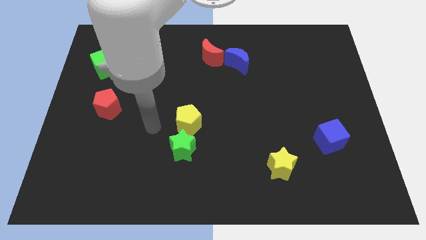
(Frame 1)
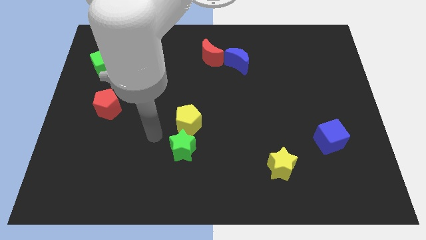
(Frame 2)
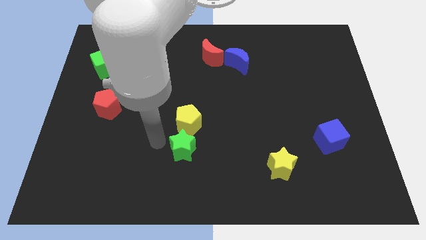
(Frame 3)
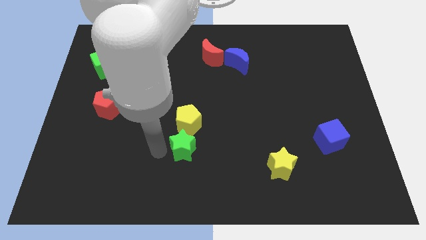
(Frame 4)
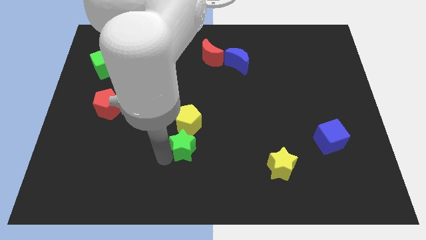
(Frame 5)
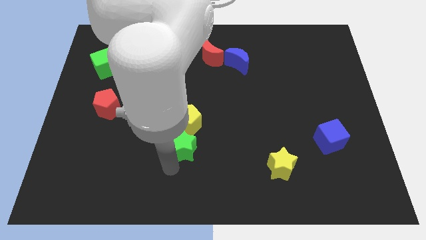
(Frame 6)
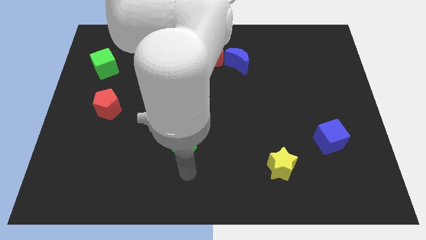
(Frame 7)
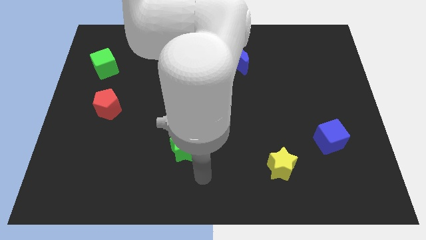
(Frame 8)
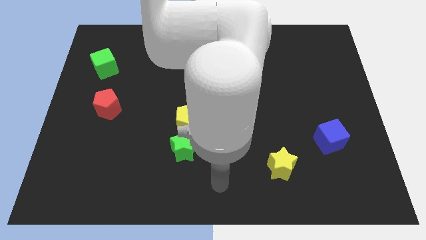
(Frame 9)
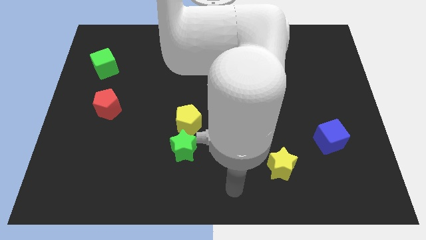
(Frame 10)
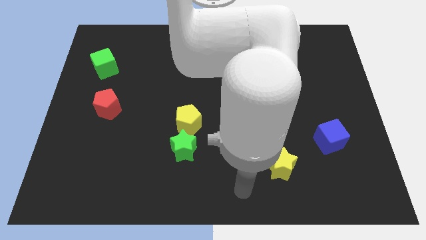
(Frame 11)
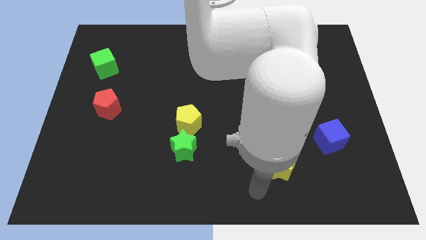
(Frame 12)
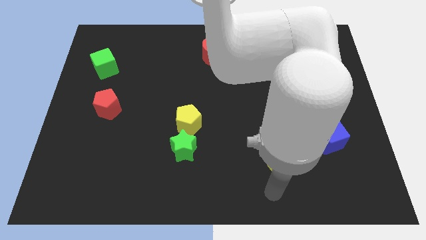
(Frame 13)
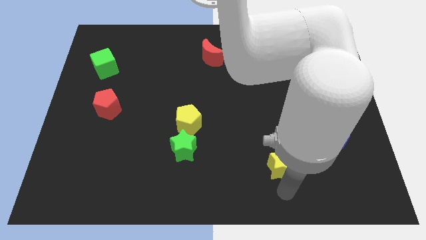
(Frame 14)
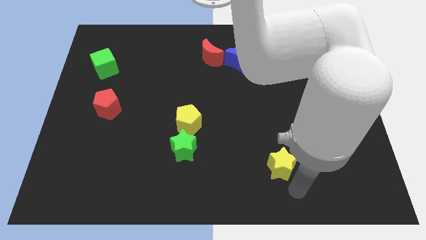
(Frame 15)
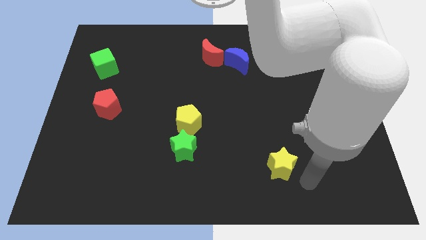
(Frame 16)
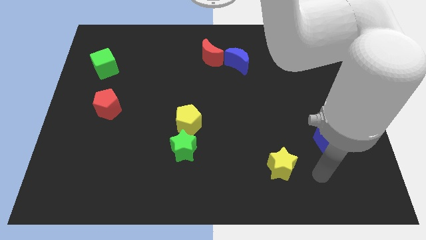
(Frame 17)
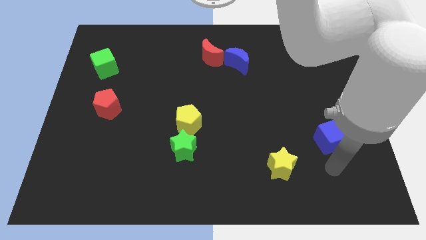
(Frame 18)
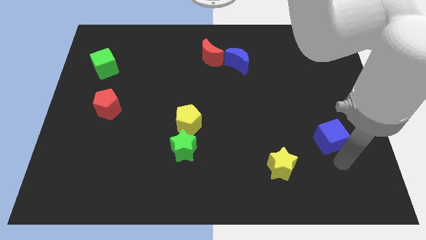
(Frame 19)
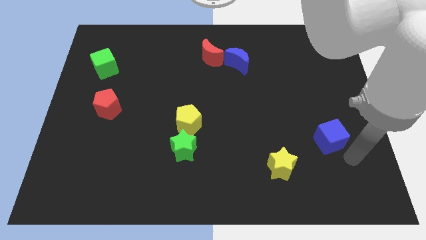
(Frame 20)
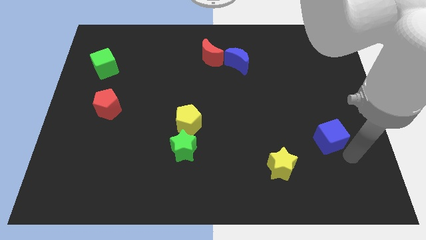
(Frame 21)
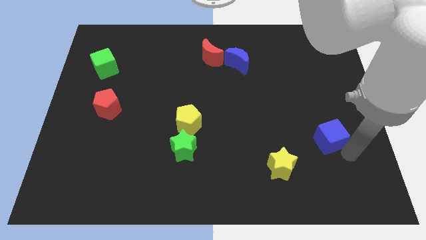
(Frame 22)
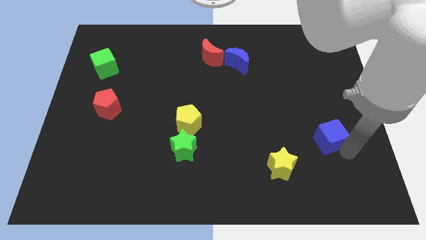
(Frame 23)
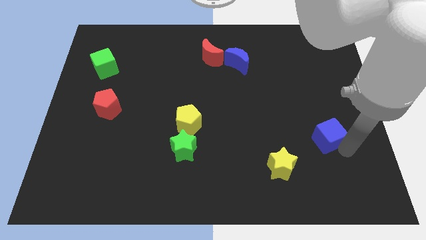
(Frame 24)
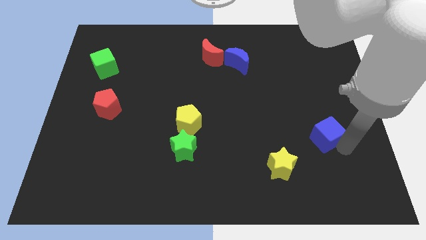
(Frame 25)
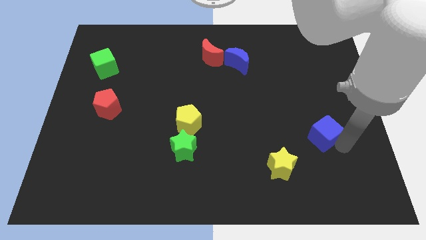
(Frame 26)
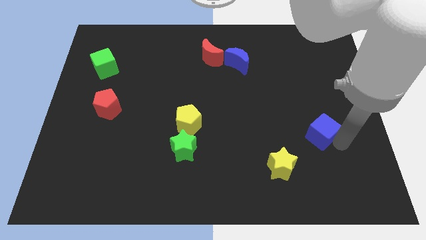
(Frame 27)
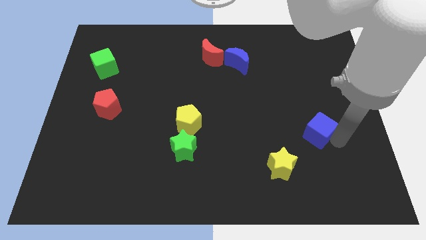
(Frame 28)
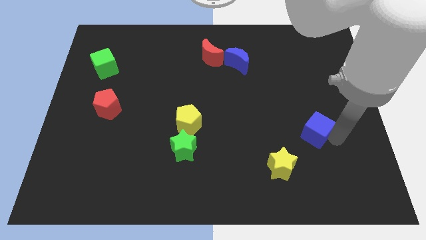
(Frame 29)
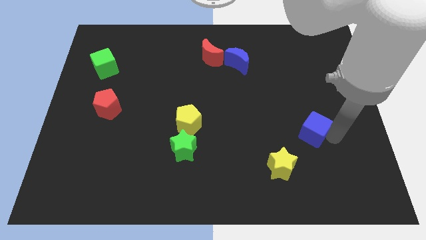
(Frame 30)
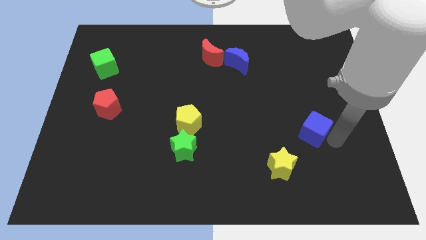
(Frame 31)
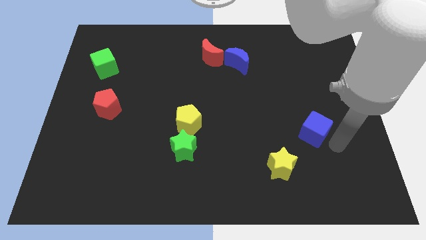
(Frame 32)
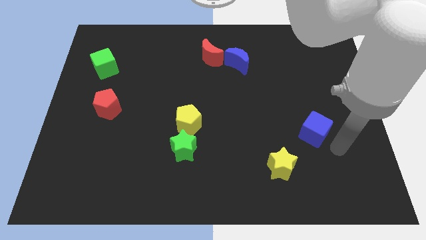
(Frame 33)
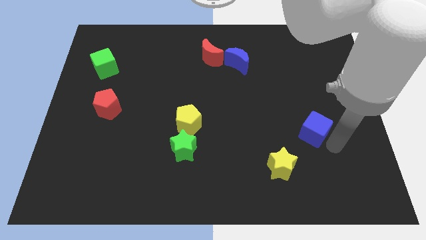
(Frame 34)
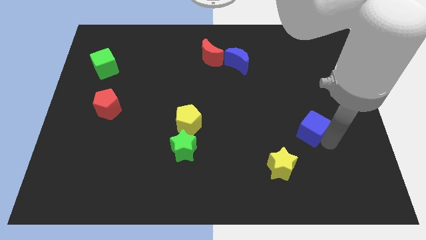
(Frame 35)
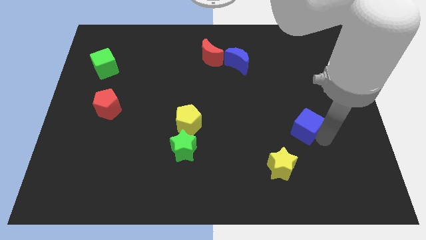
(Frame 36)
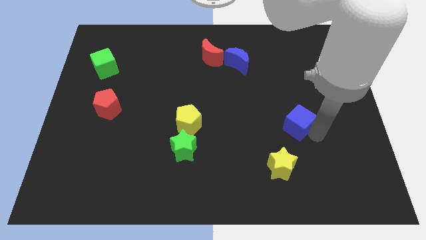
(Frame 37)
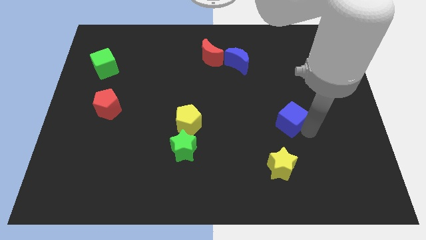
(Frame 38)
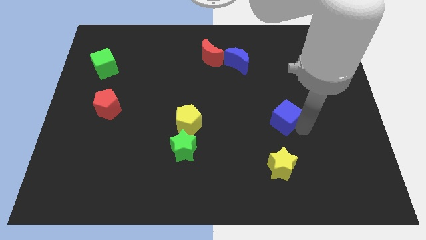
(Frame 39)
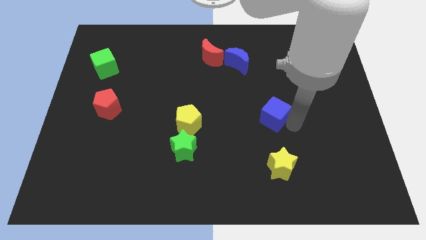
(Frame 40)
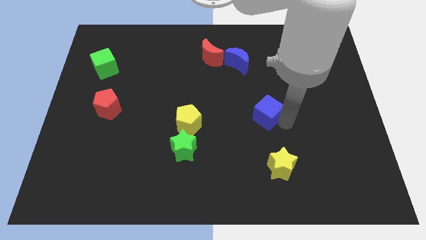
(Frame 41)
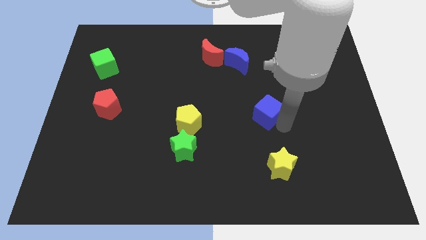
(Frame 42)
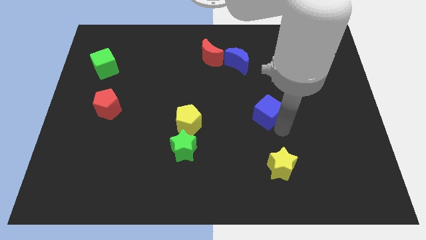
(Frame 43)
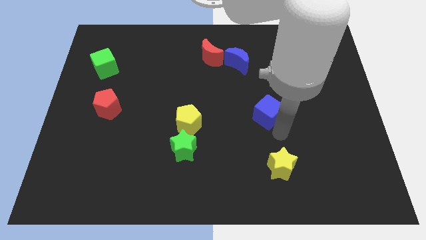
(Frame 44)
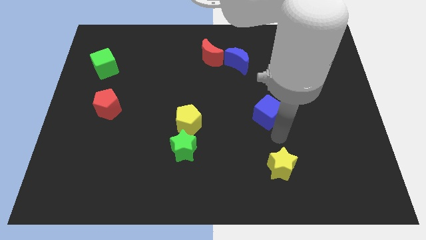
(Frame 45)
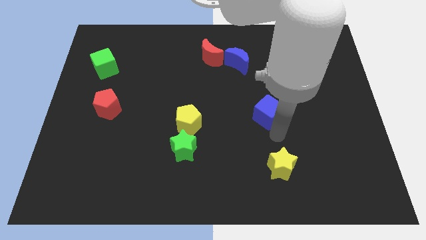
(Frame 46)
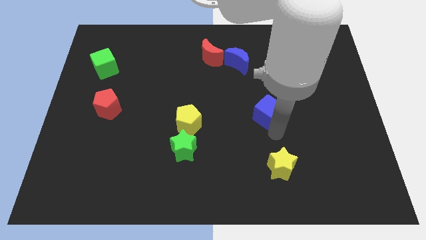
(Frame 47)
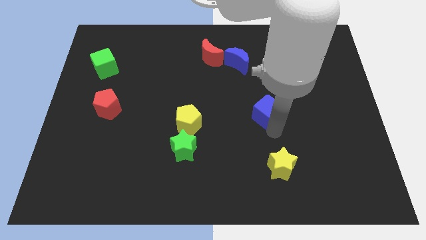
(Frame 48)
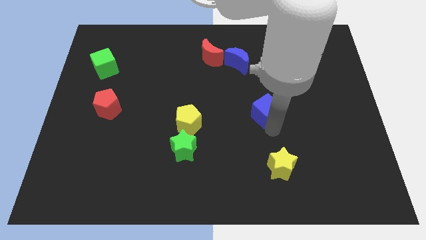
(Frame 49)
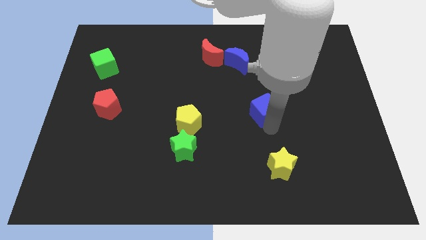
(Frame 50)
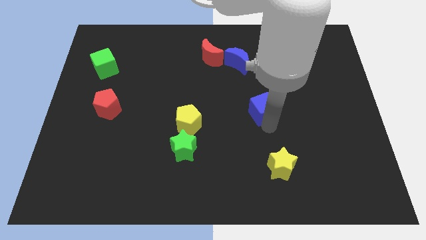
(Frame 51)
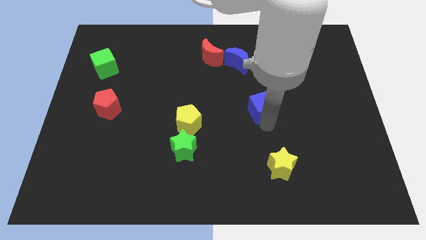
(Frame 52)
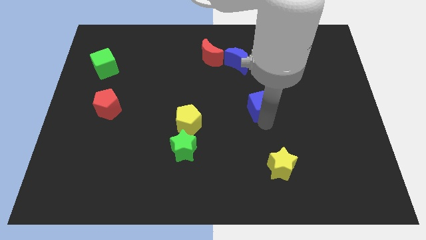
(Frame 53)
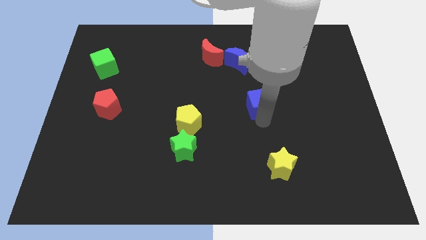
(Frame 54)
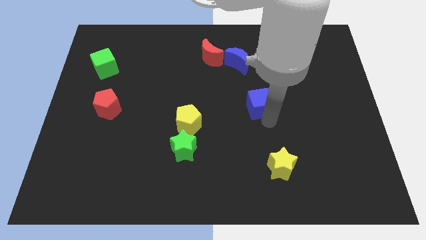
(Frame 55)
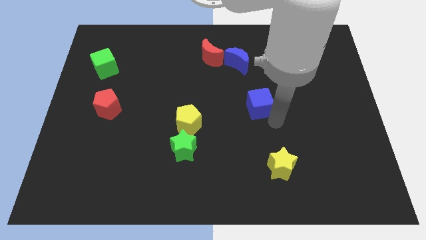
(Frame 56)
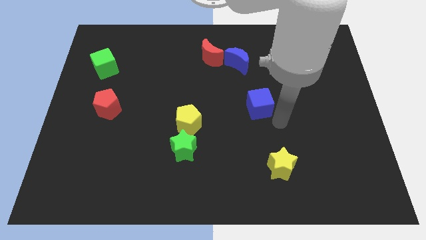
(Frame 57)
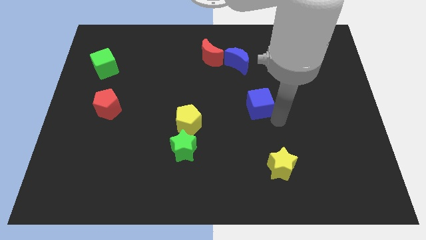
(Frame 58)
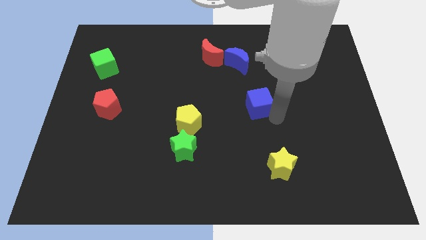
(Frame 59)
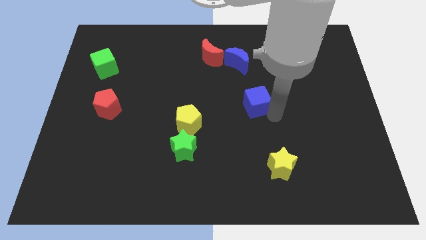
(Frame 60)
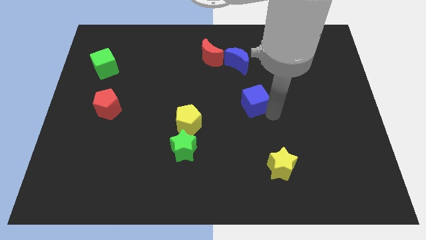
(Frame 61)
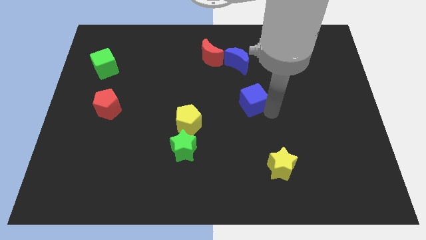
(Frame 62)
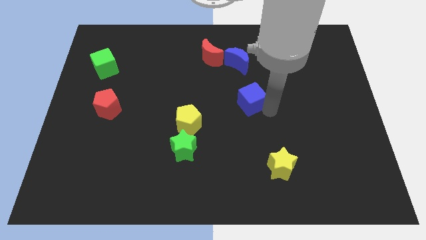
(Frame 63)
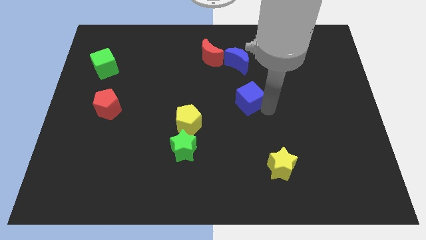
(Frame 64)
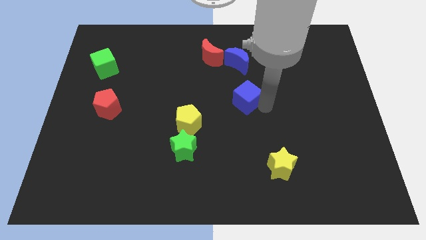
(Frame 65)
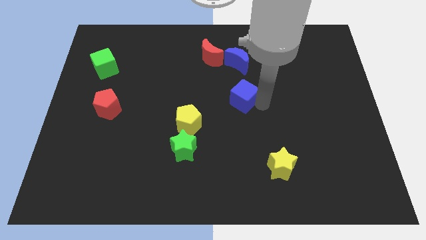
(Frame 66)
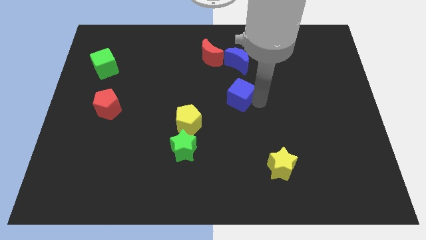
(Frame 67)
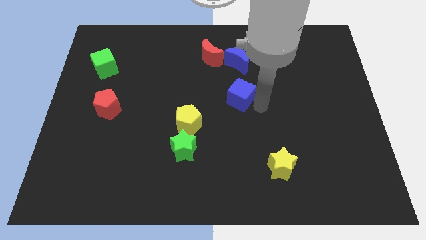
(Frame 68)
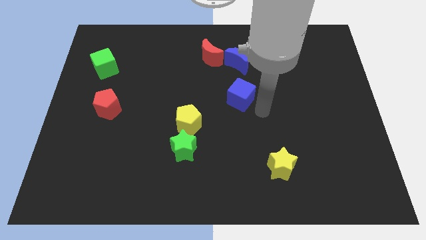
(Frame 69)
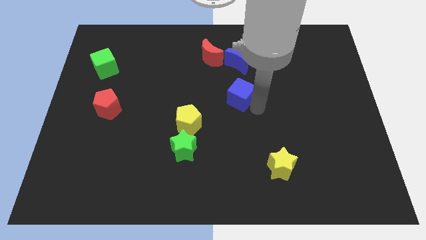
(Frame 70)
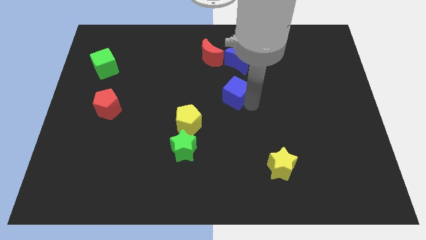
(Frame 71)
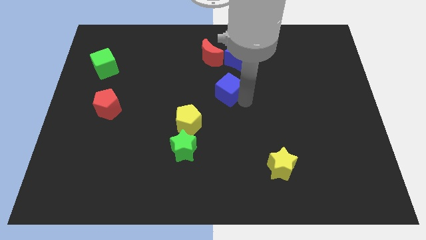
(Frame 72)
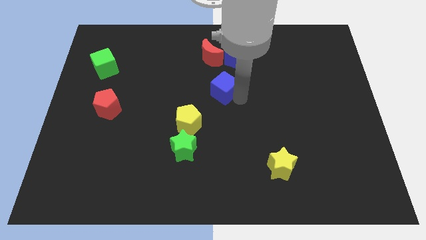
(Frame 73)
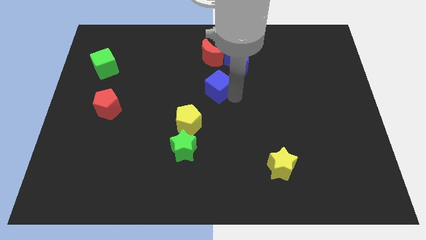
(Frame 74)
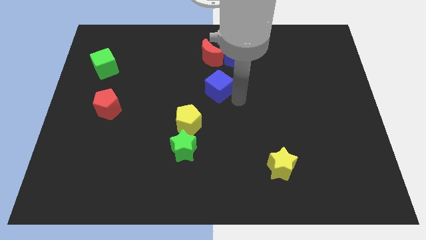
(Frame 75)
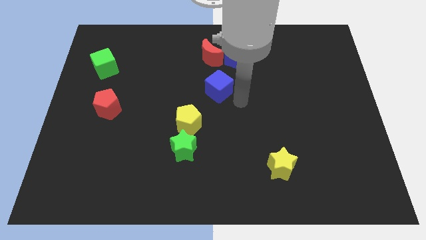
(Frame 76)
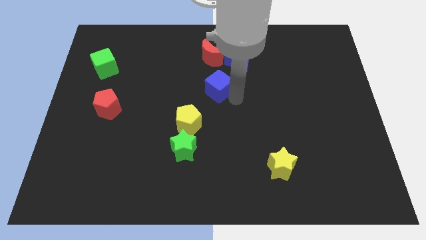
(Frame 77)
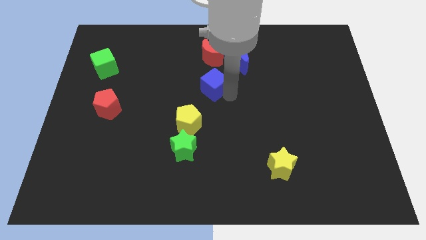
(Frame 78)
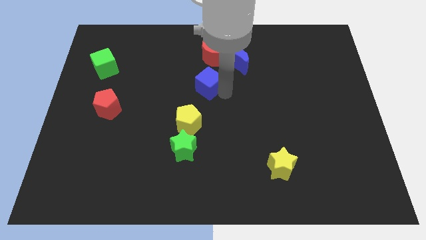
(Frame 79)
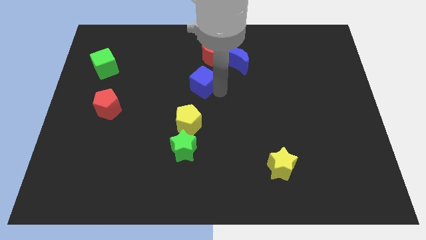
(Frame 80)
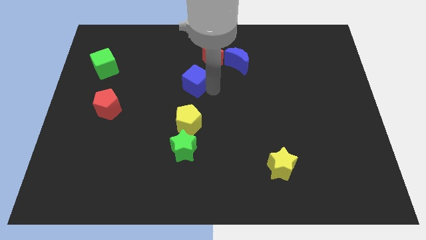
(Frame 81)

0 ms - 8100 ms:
push the blue cube diagonally down and to the left of the red moon
